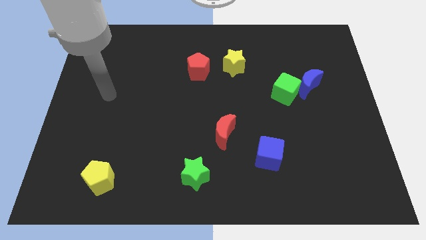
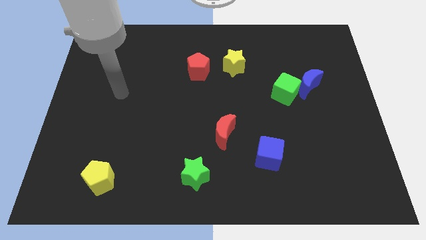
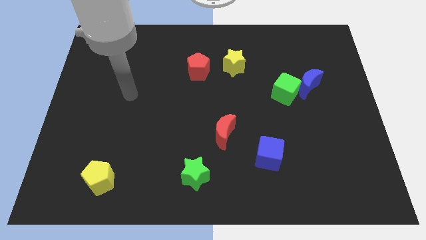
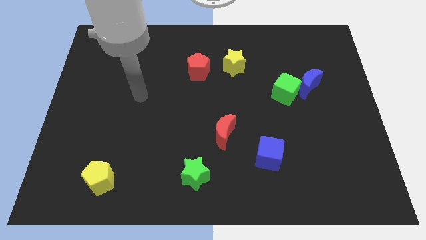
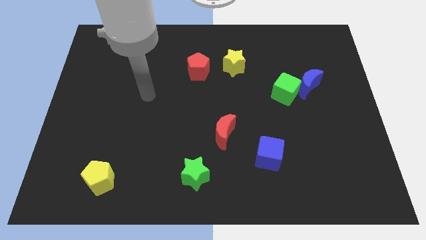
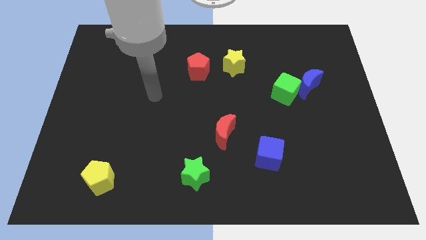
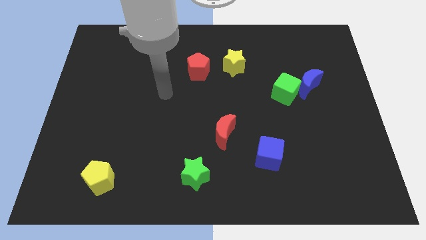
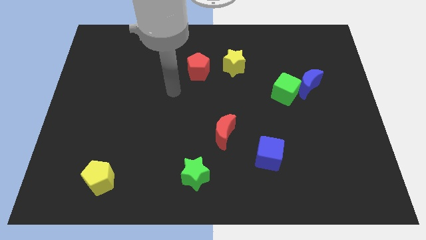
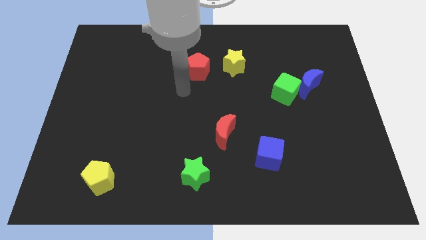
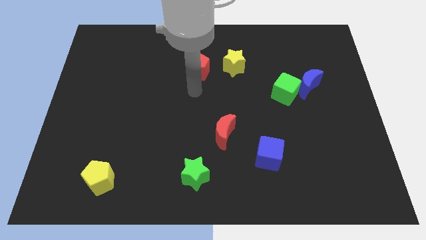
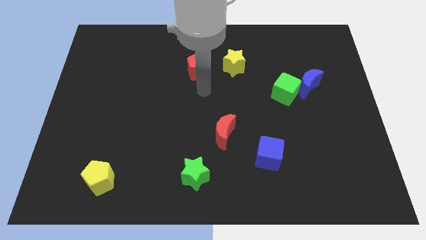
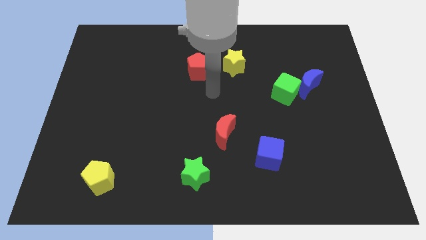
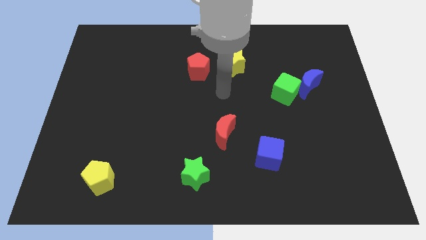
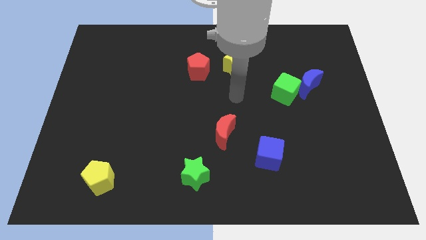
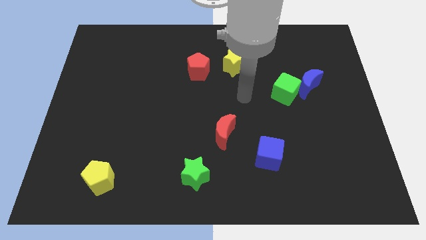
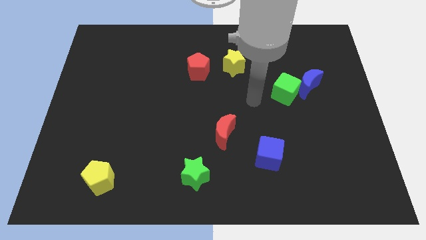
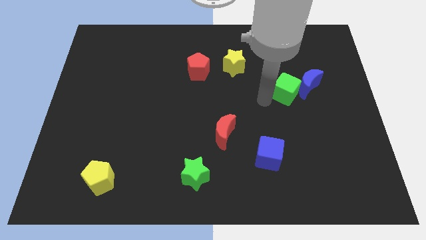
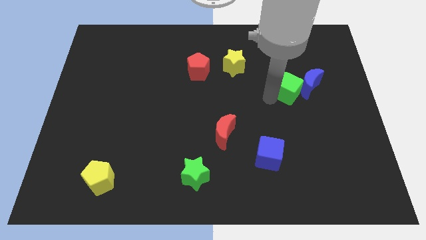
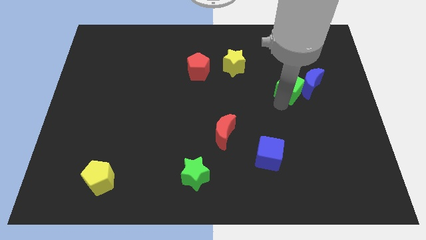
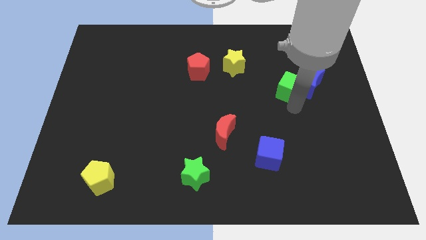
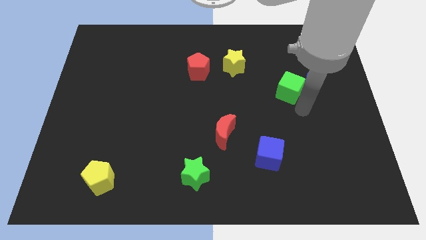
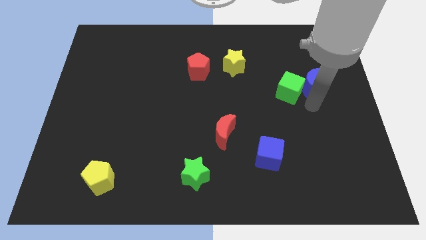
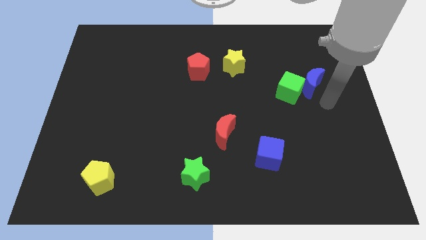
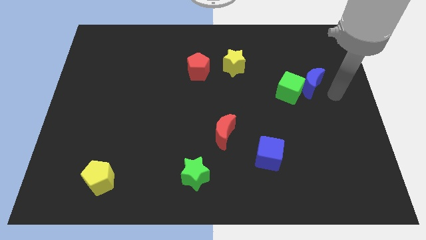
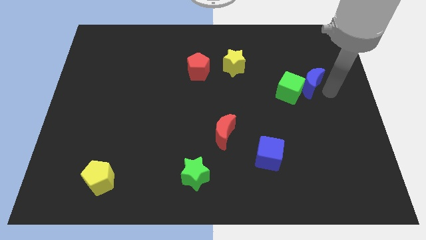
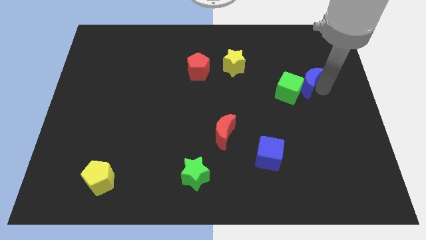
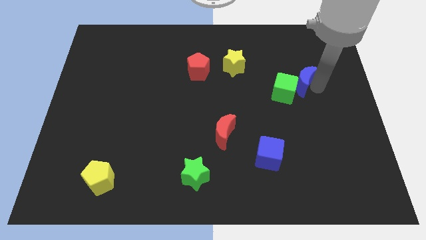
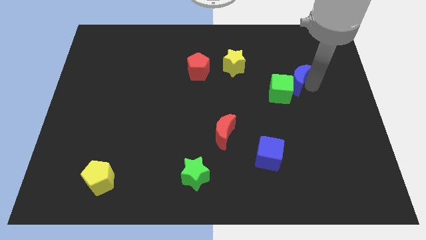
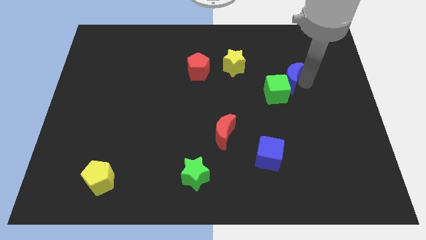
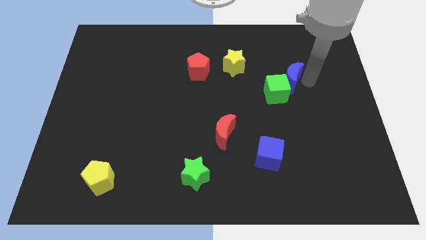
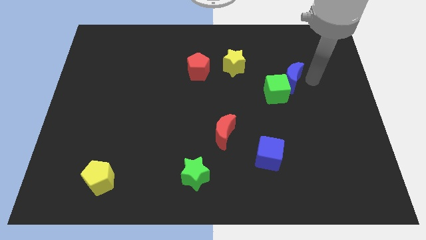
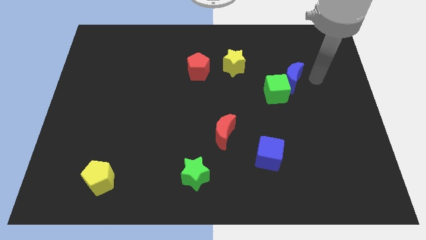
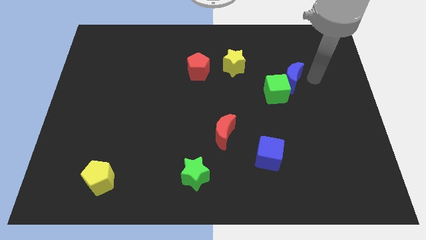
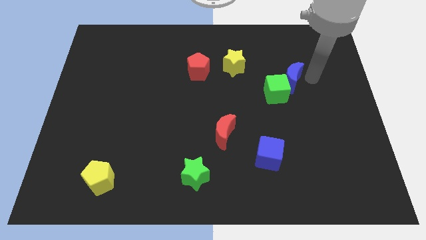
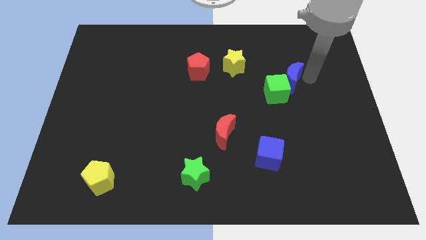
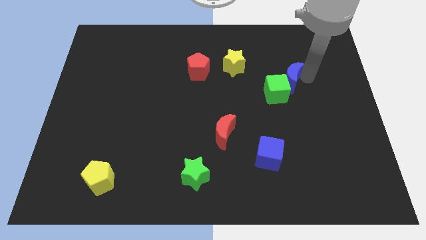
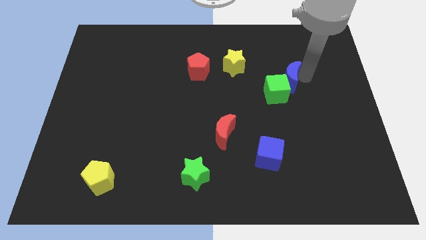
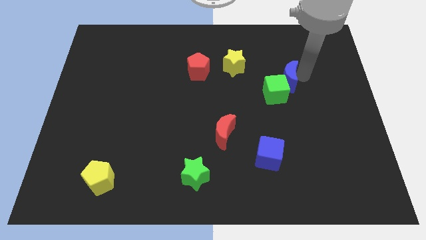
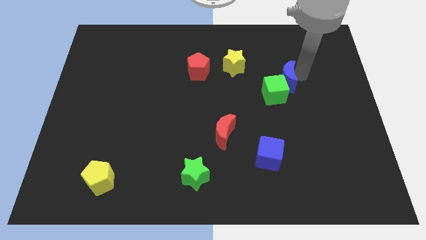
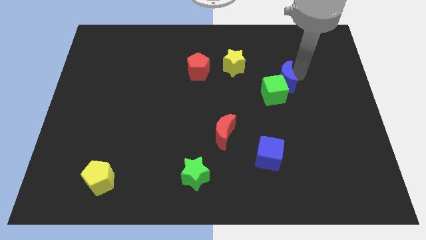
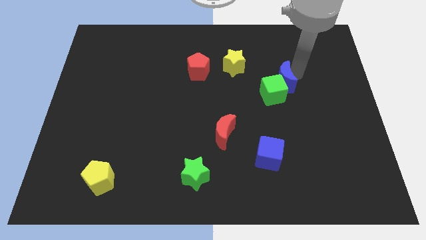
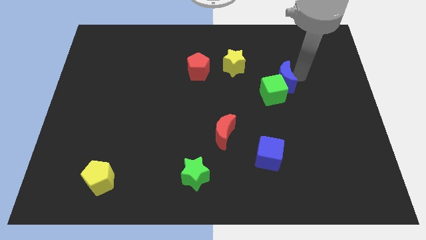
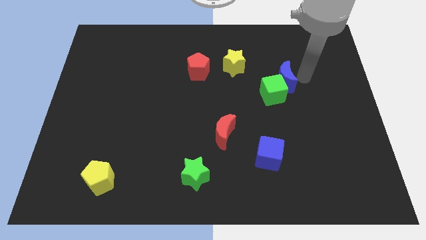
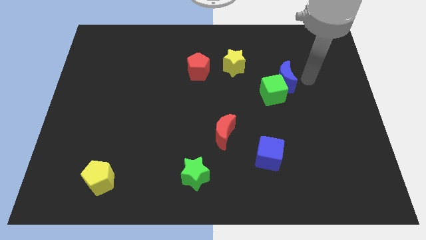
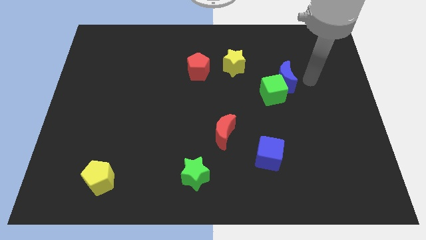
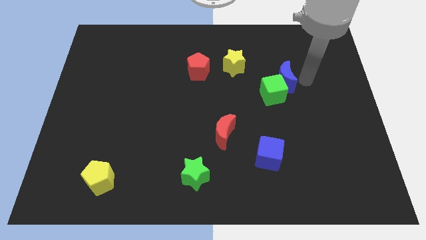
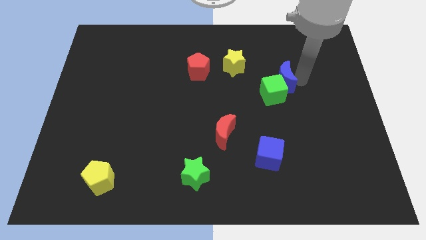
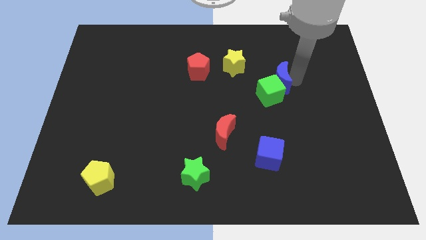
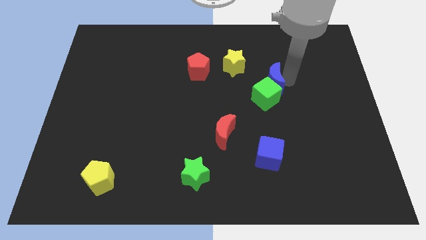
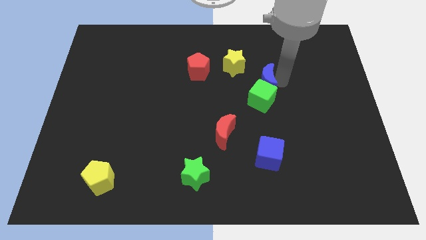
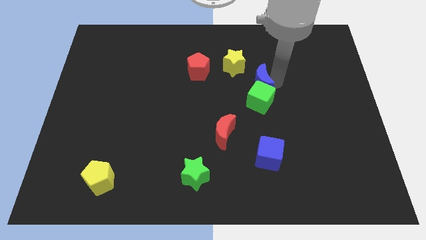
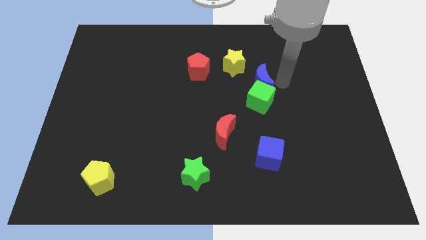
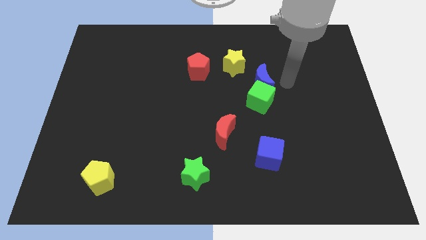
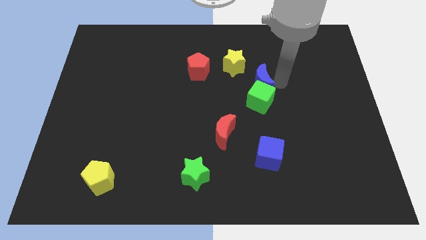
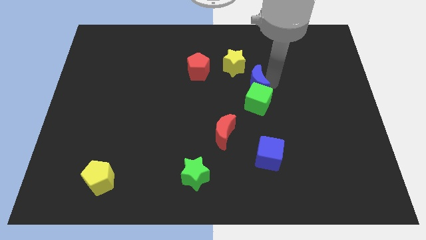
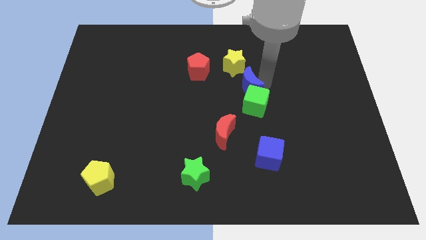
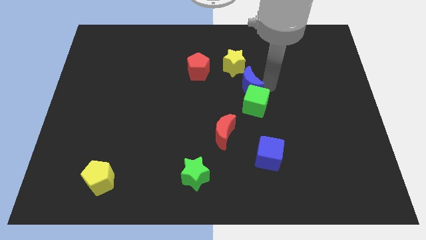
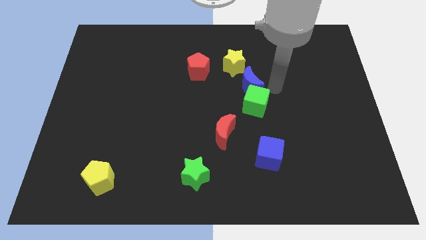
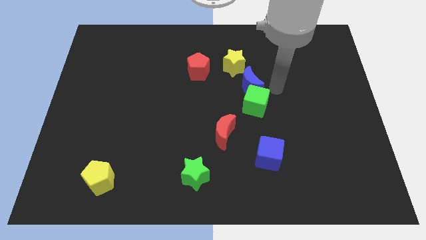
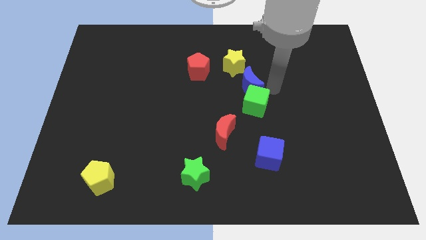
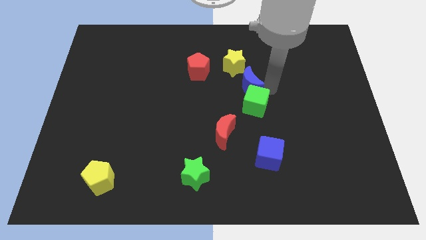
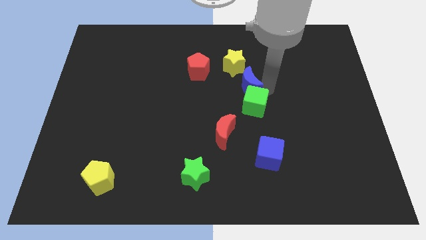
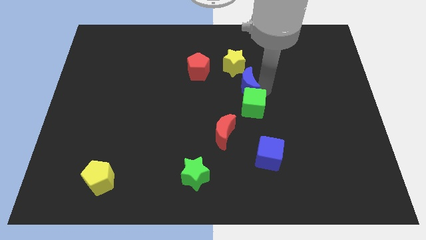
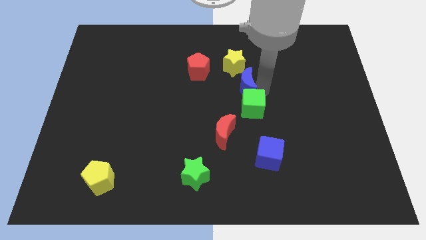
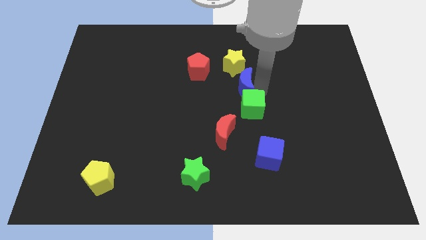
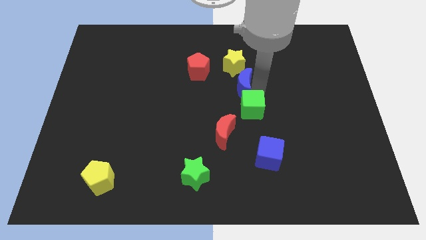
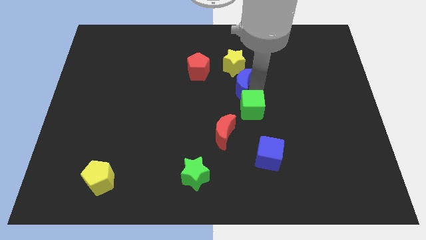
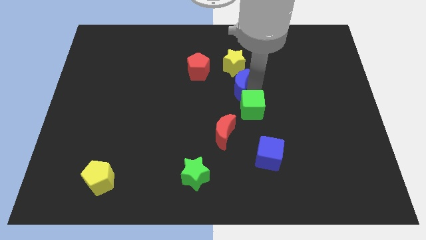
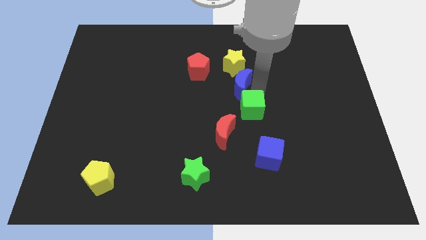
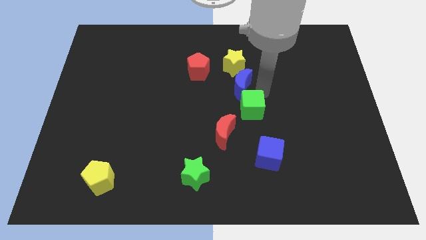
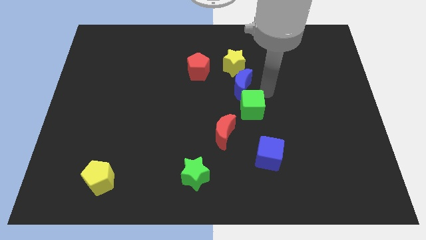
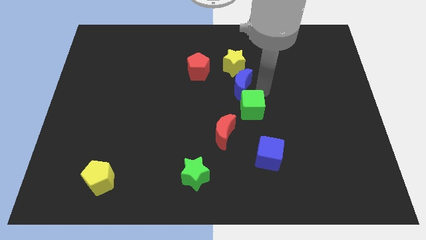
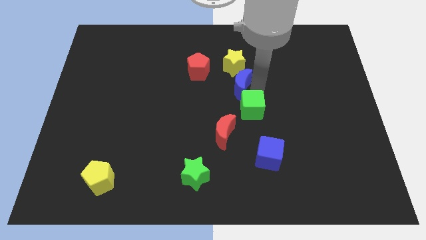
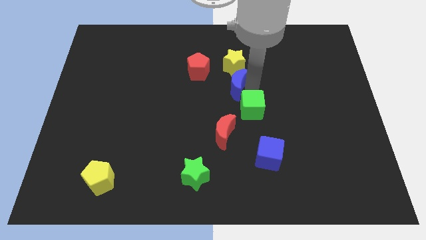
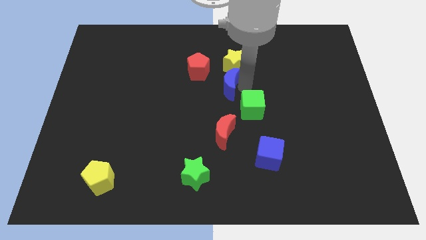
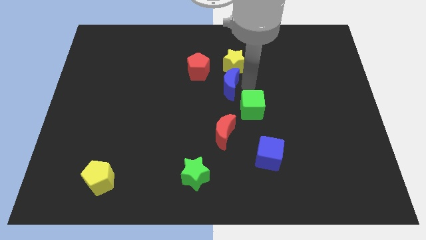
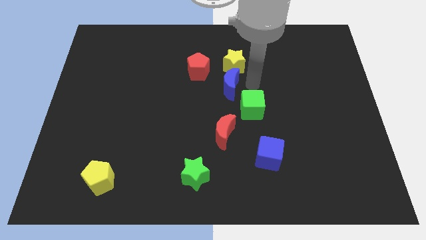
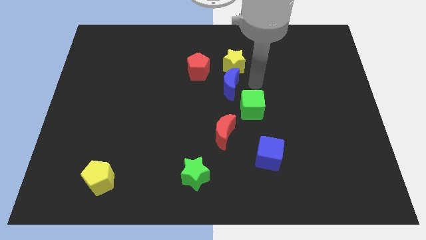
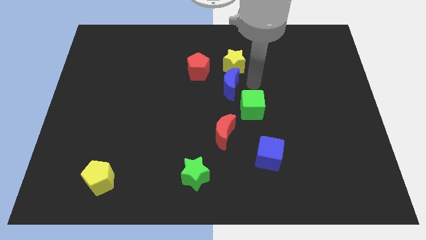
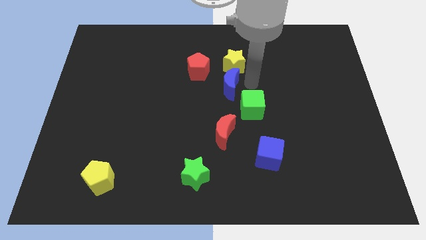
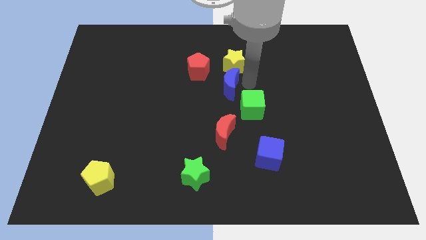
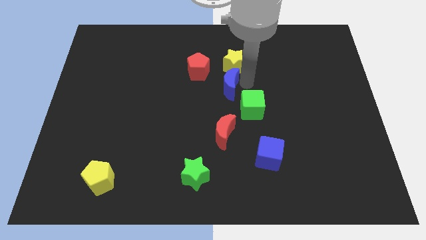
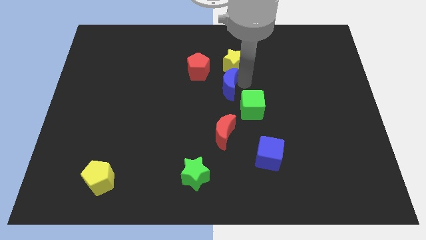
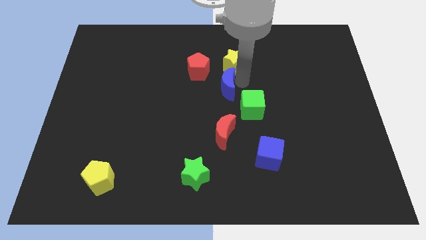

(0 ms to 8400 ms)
push the blue moon to the left
